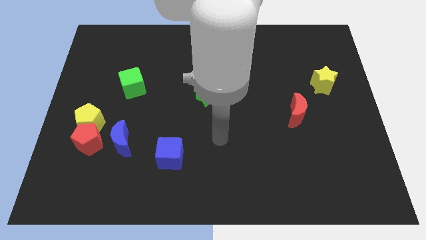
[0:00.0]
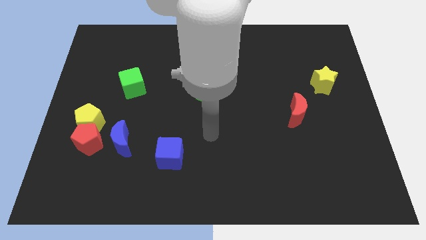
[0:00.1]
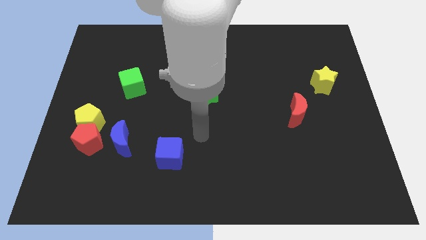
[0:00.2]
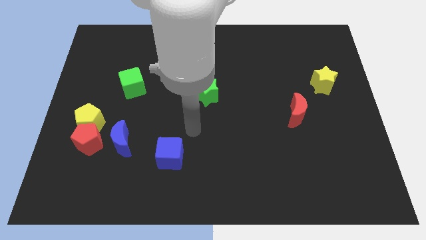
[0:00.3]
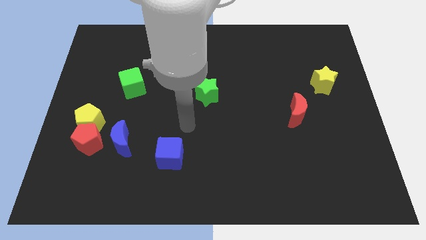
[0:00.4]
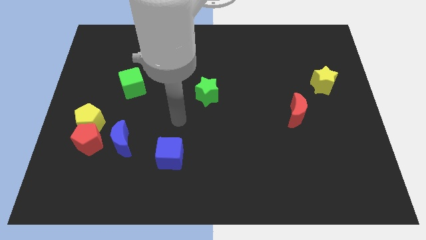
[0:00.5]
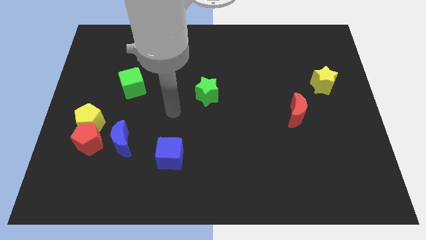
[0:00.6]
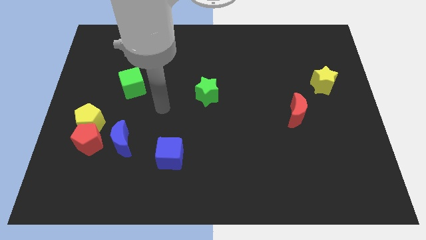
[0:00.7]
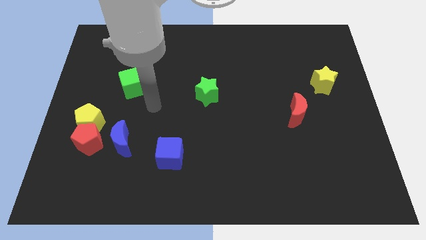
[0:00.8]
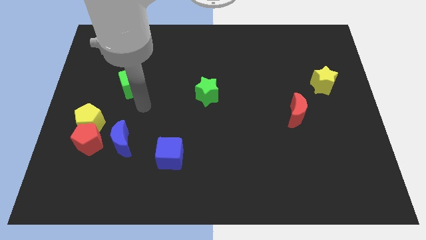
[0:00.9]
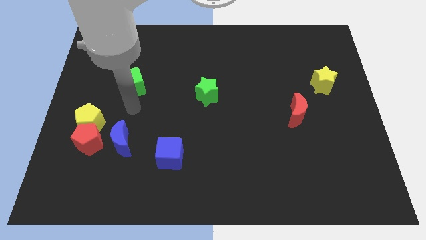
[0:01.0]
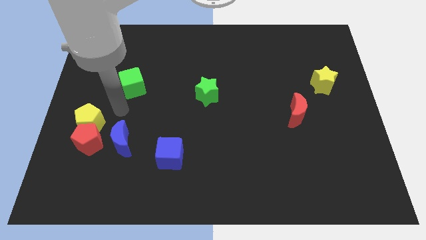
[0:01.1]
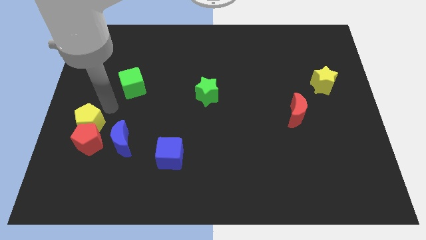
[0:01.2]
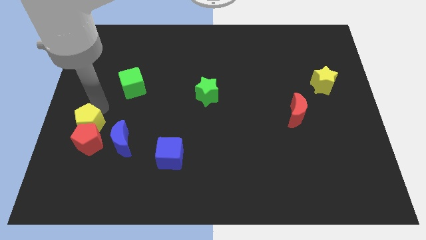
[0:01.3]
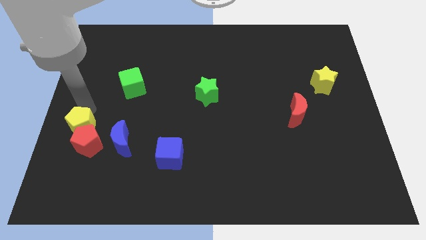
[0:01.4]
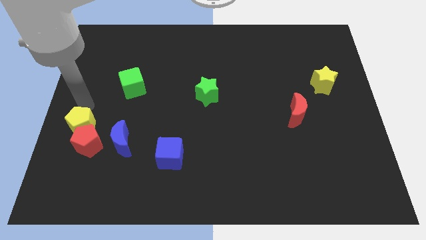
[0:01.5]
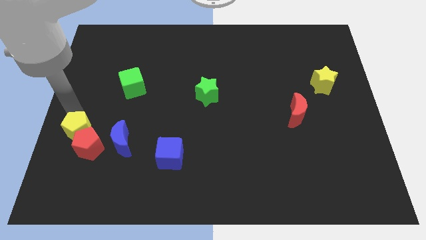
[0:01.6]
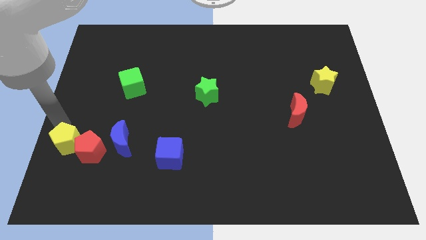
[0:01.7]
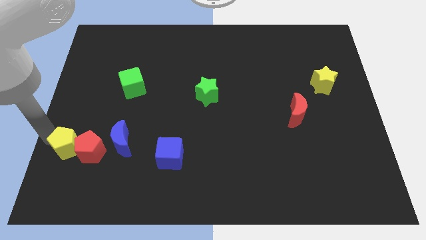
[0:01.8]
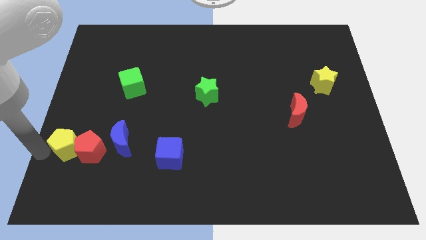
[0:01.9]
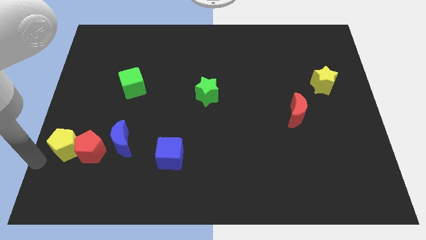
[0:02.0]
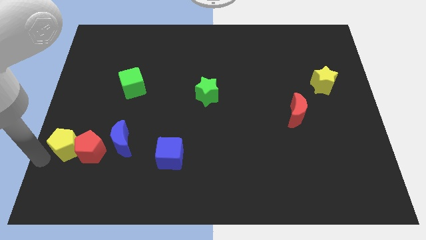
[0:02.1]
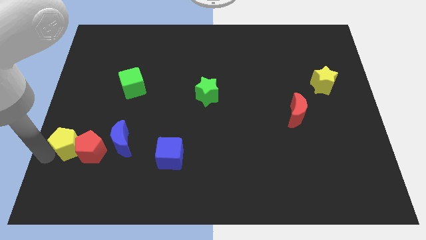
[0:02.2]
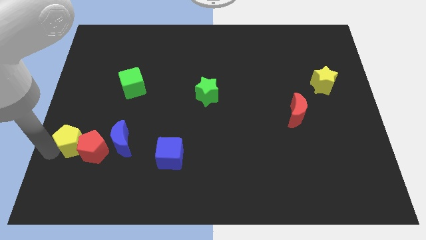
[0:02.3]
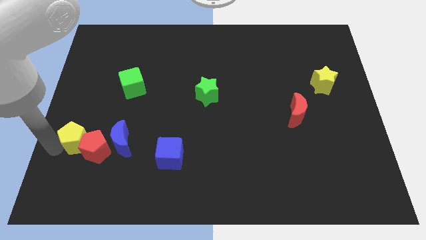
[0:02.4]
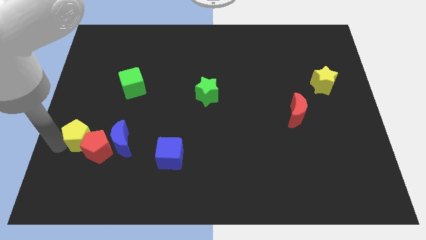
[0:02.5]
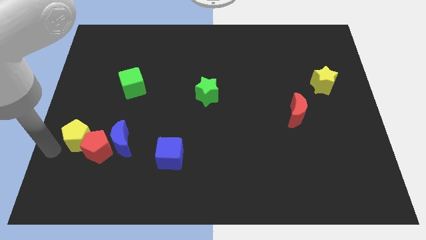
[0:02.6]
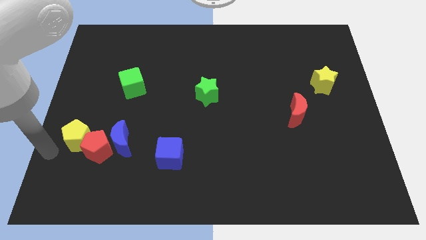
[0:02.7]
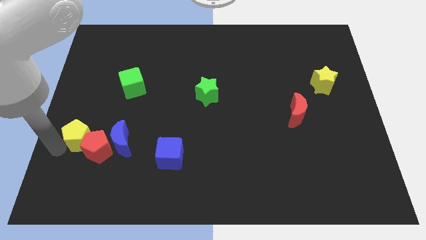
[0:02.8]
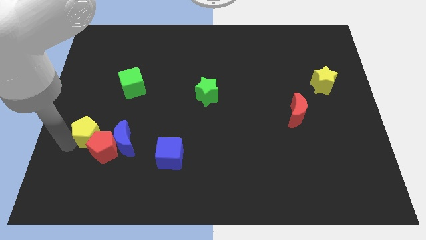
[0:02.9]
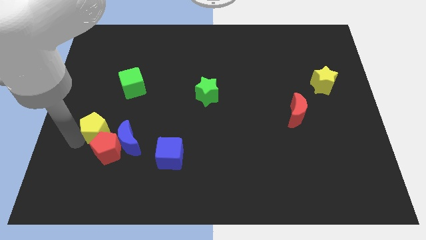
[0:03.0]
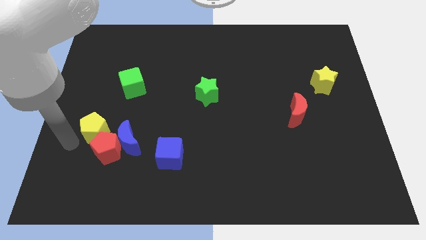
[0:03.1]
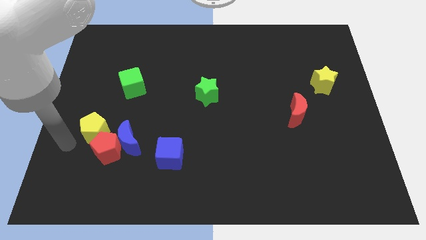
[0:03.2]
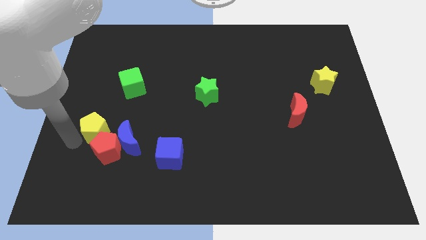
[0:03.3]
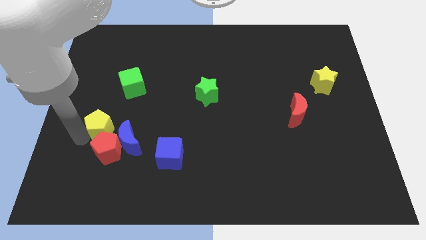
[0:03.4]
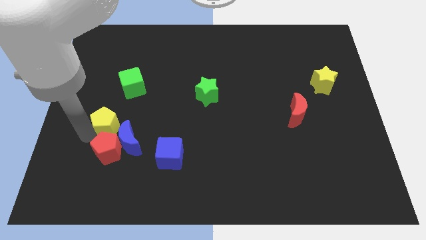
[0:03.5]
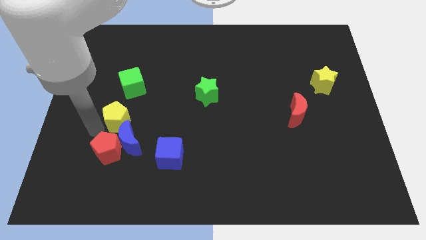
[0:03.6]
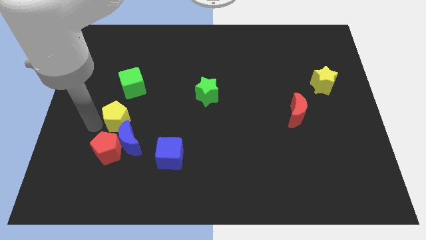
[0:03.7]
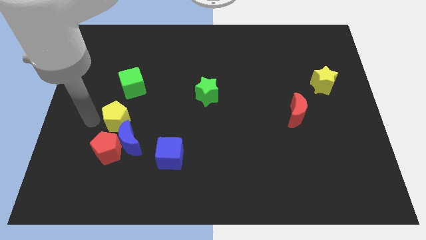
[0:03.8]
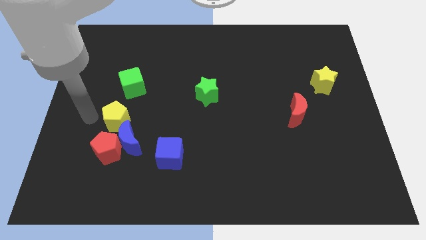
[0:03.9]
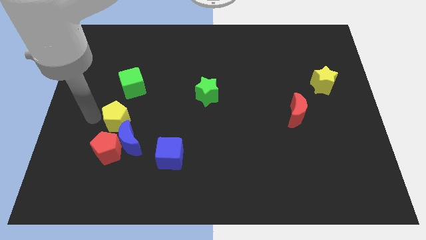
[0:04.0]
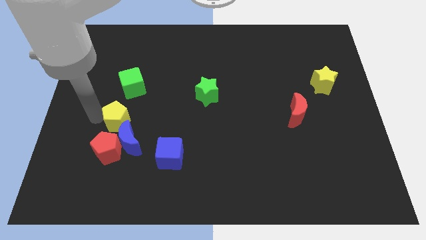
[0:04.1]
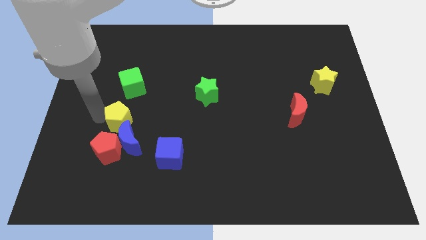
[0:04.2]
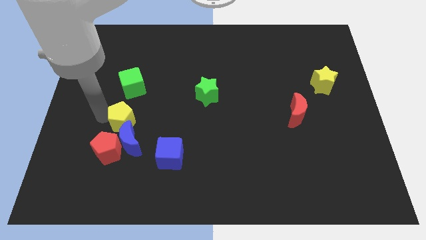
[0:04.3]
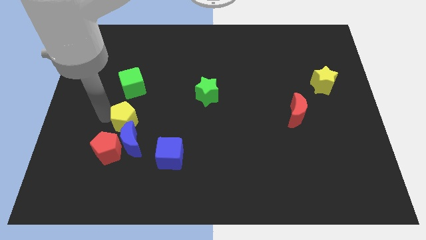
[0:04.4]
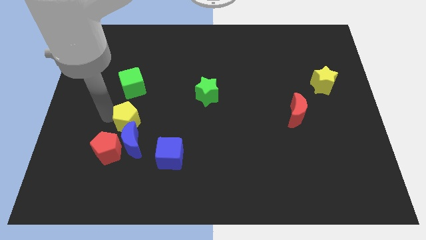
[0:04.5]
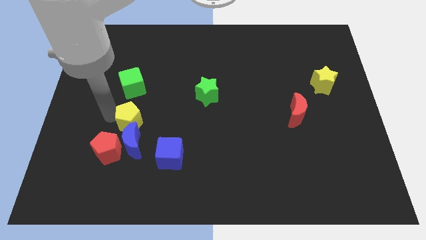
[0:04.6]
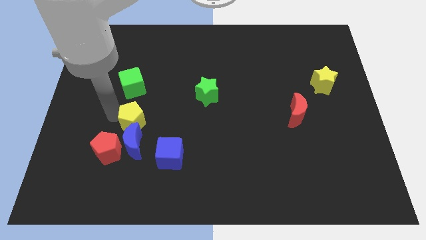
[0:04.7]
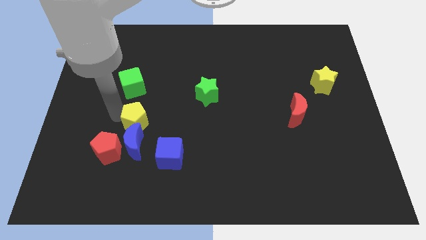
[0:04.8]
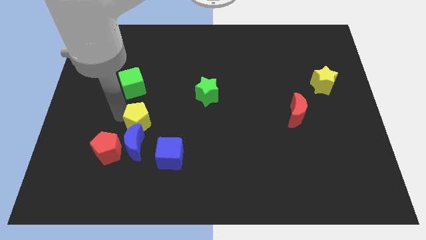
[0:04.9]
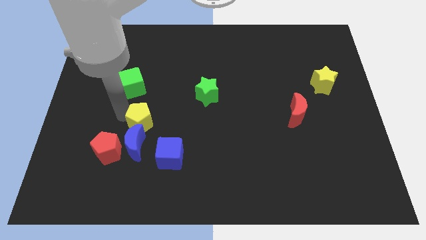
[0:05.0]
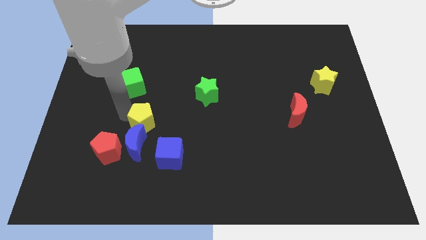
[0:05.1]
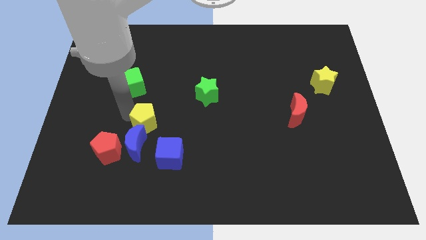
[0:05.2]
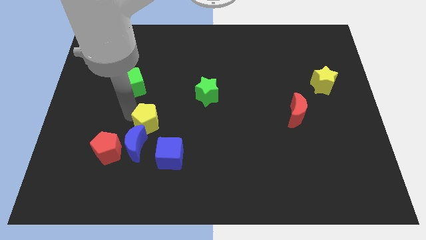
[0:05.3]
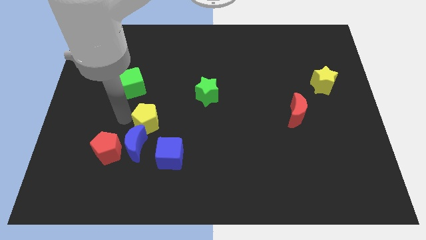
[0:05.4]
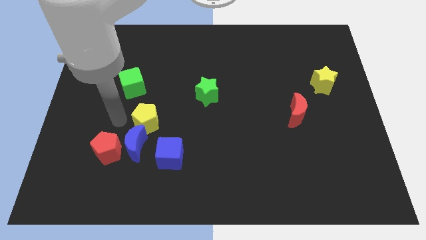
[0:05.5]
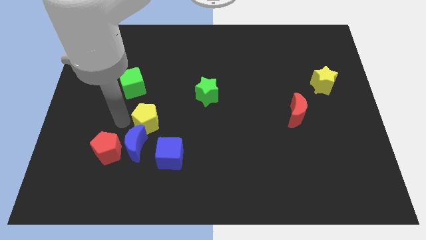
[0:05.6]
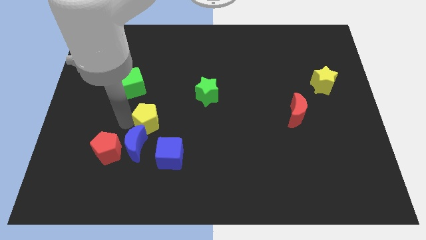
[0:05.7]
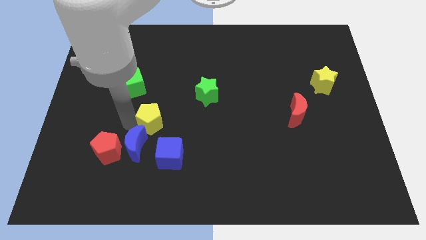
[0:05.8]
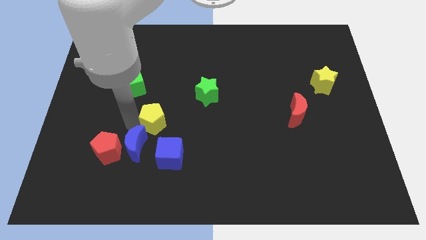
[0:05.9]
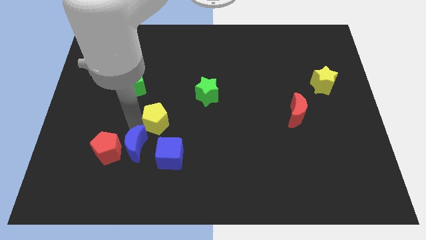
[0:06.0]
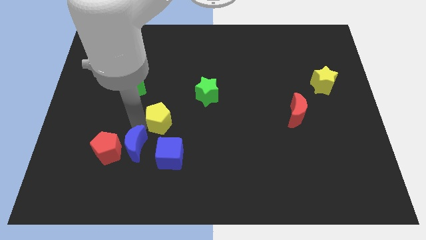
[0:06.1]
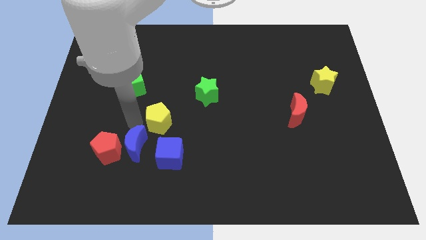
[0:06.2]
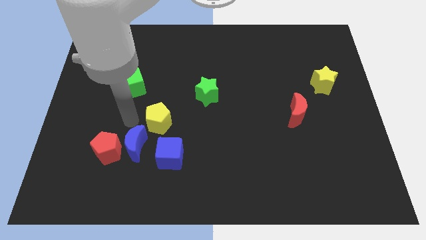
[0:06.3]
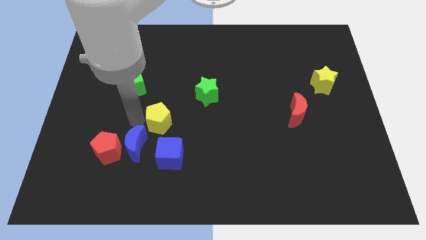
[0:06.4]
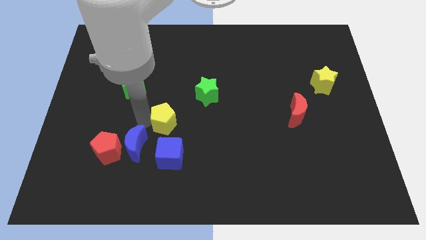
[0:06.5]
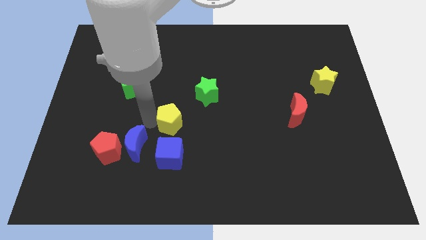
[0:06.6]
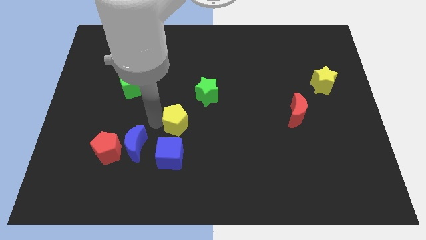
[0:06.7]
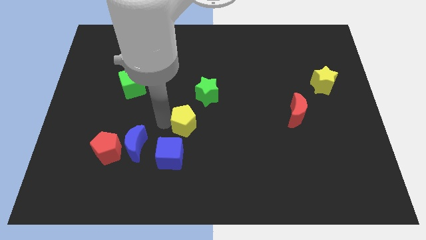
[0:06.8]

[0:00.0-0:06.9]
slide the yellow pentagon to the right

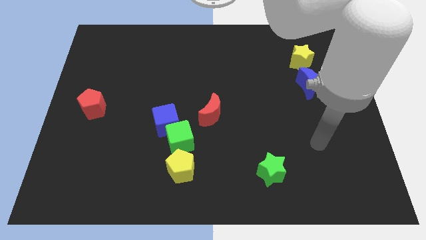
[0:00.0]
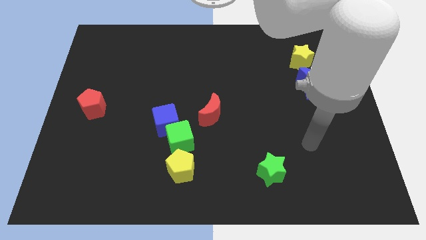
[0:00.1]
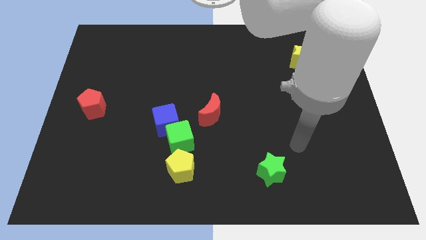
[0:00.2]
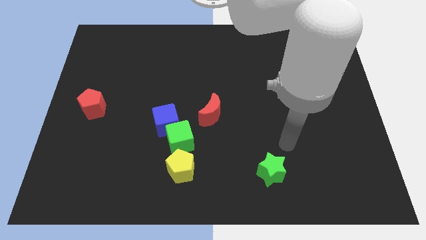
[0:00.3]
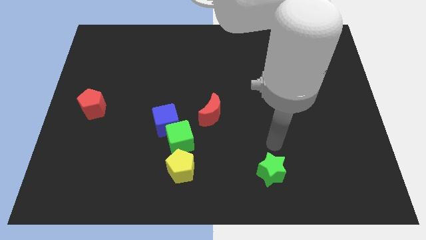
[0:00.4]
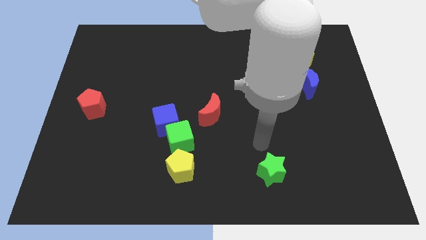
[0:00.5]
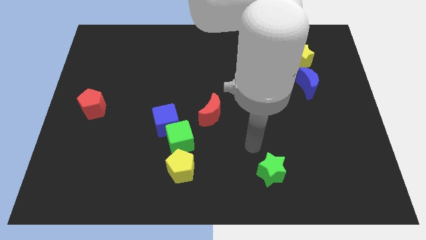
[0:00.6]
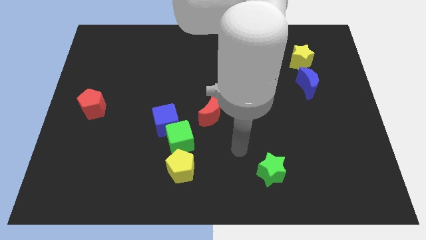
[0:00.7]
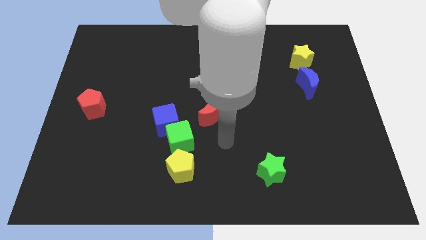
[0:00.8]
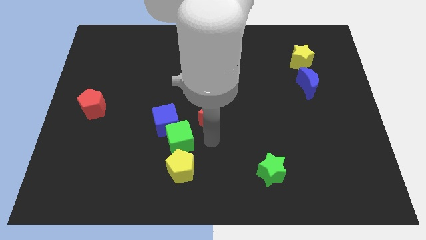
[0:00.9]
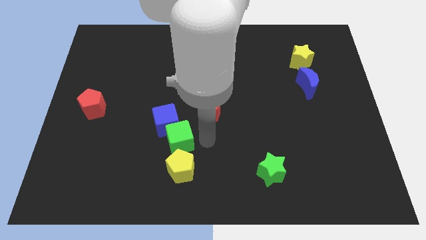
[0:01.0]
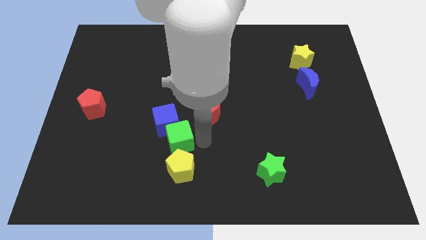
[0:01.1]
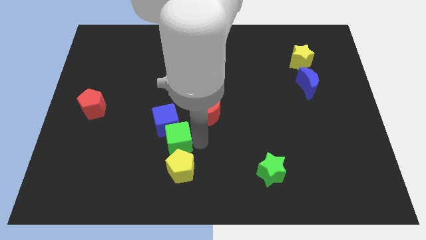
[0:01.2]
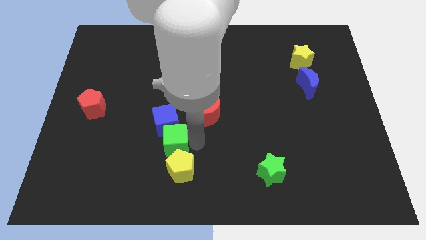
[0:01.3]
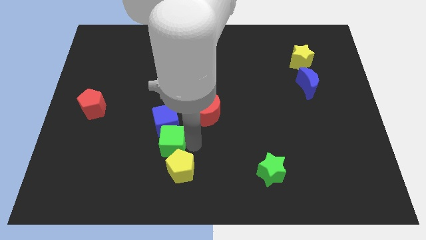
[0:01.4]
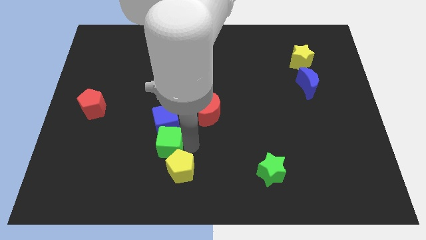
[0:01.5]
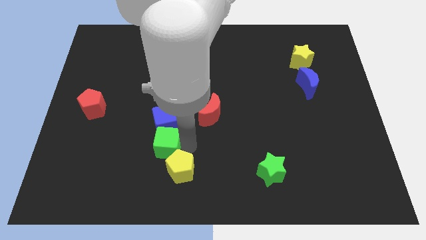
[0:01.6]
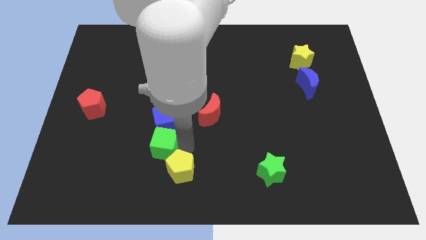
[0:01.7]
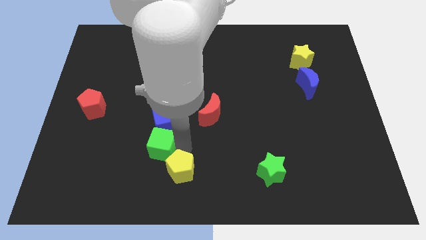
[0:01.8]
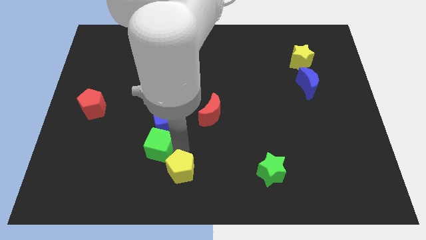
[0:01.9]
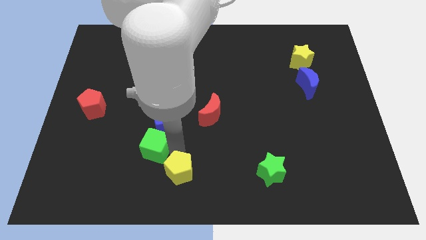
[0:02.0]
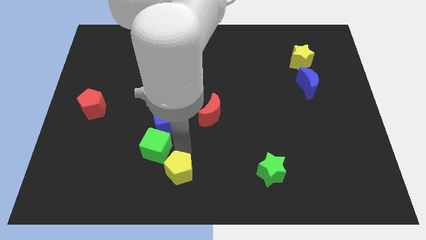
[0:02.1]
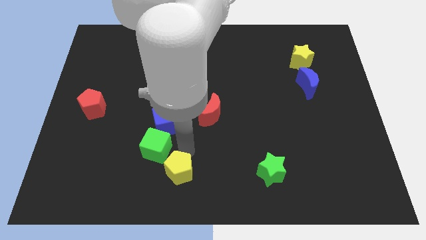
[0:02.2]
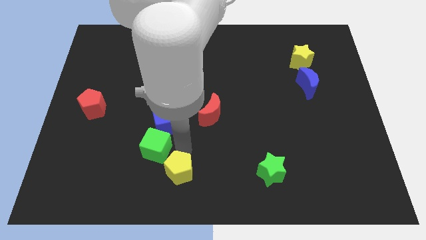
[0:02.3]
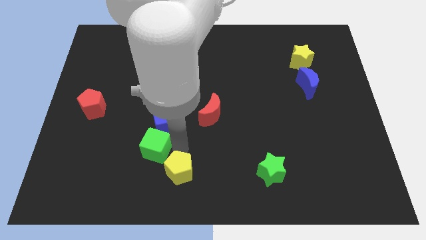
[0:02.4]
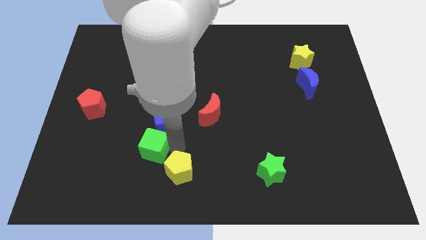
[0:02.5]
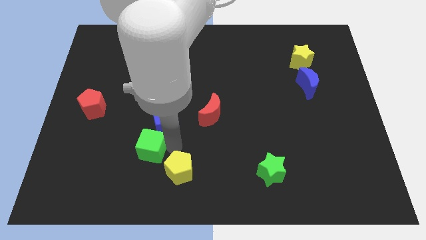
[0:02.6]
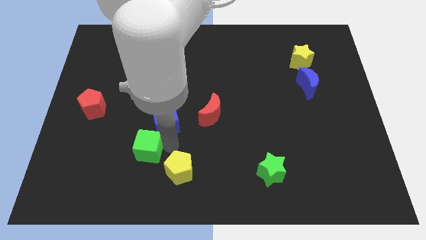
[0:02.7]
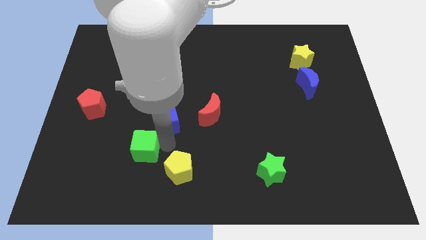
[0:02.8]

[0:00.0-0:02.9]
slightly slide the green cube to the left
